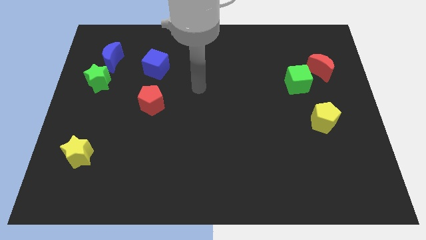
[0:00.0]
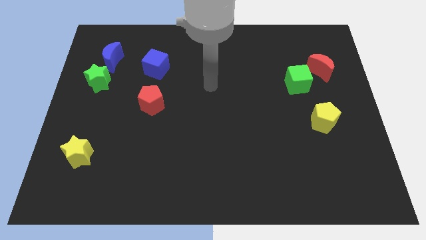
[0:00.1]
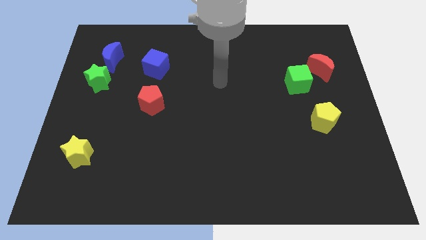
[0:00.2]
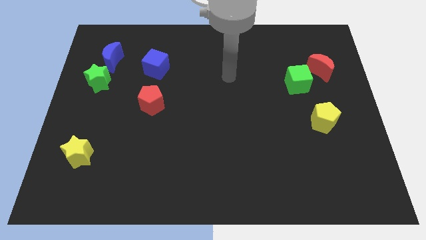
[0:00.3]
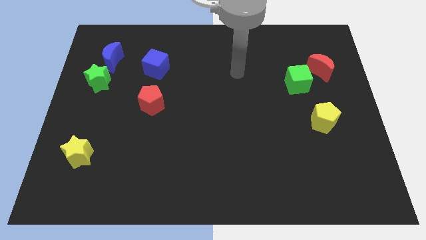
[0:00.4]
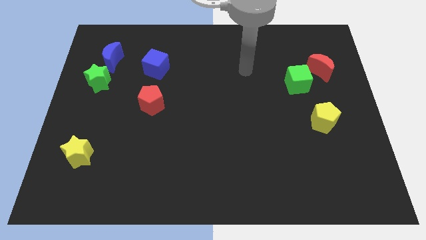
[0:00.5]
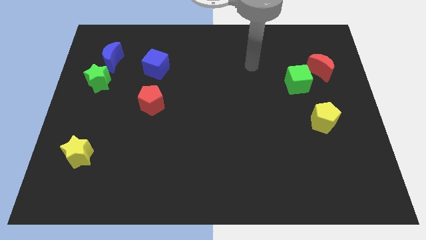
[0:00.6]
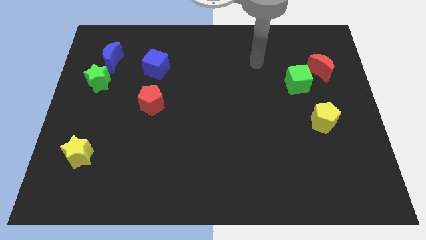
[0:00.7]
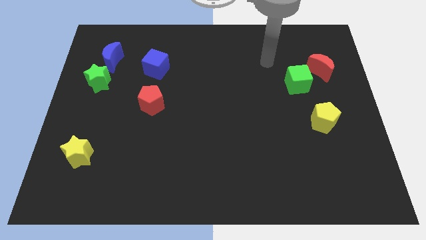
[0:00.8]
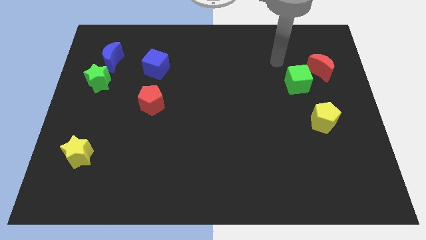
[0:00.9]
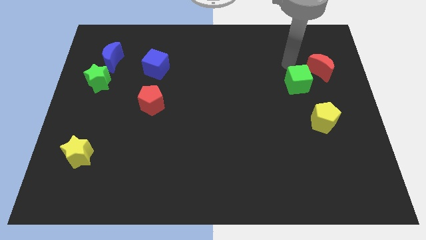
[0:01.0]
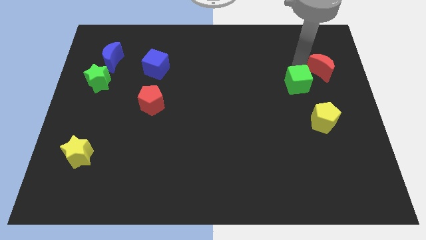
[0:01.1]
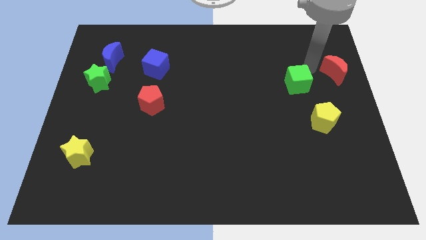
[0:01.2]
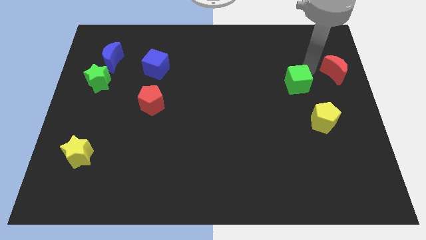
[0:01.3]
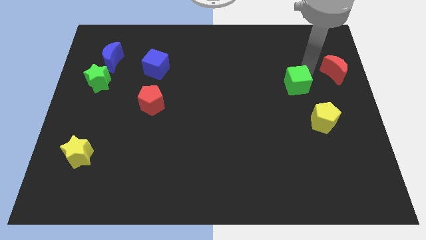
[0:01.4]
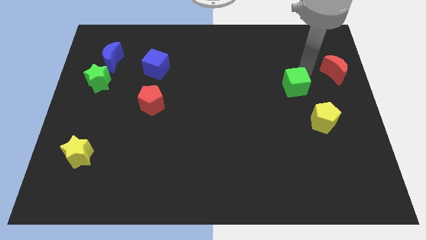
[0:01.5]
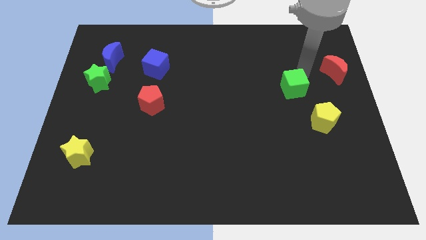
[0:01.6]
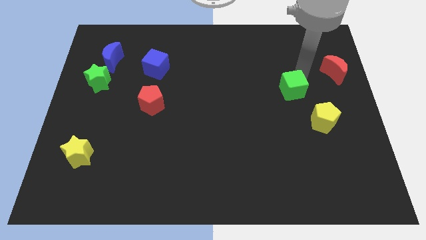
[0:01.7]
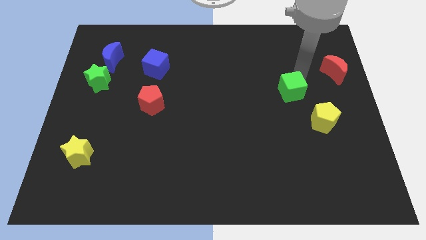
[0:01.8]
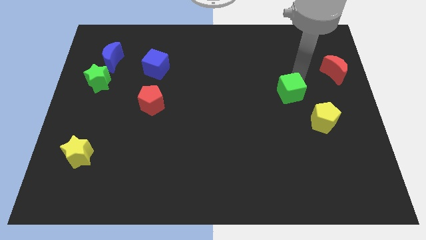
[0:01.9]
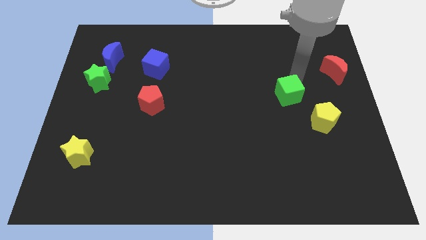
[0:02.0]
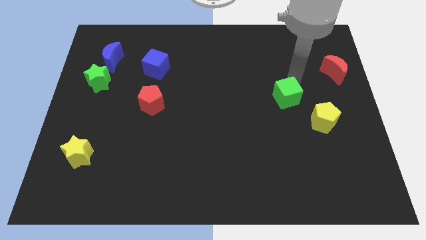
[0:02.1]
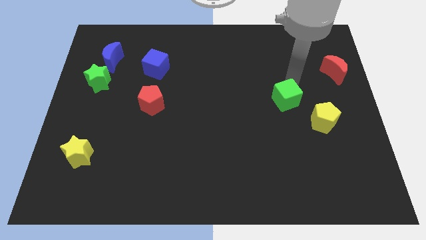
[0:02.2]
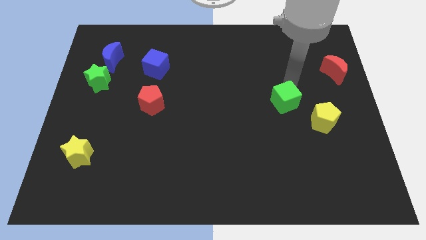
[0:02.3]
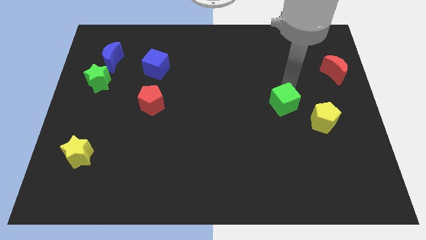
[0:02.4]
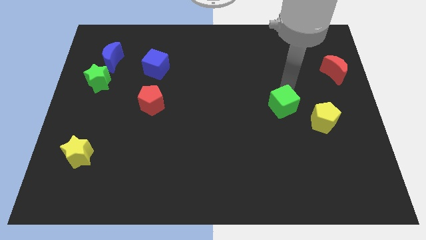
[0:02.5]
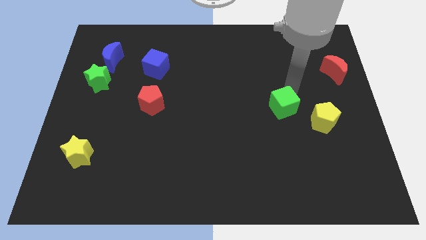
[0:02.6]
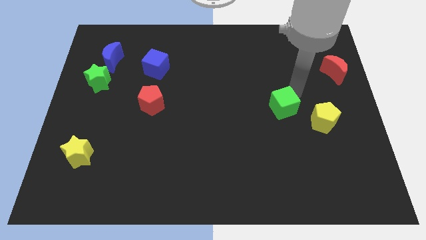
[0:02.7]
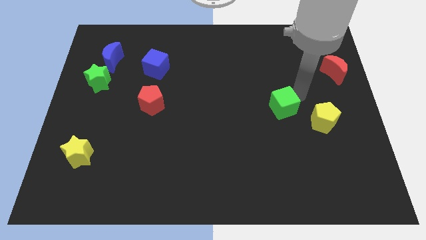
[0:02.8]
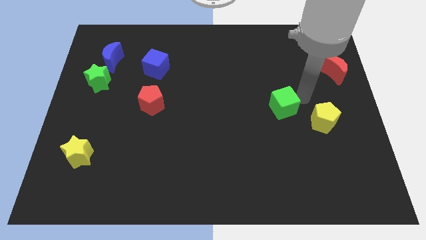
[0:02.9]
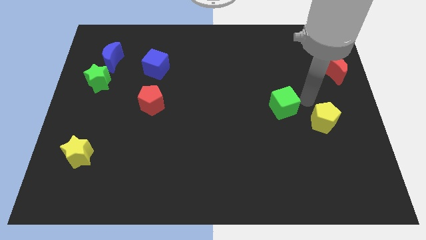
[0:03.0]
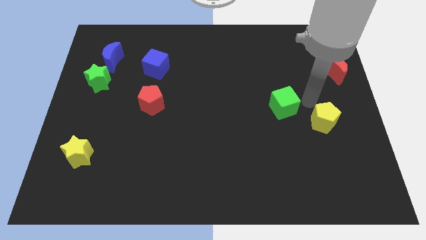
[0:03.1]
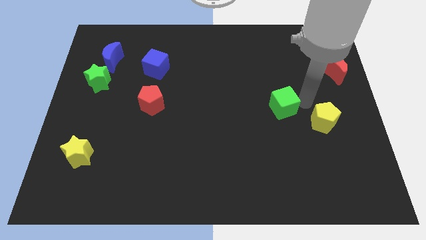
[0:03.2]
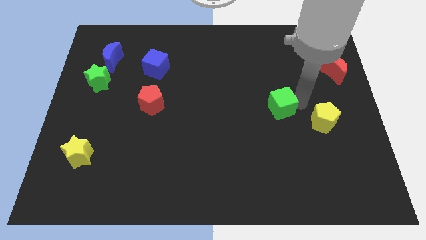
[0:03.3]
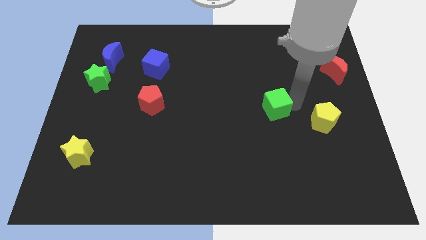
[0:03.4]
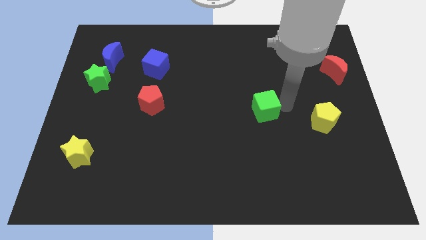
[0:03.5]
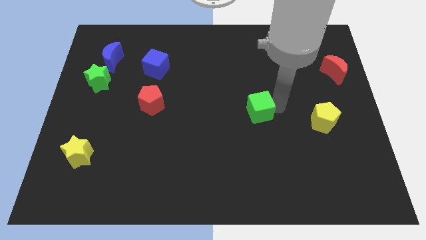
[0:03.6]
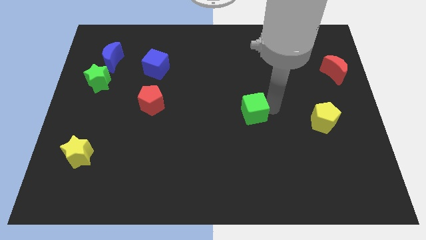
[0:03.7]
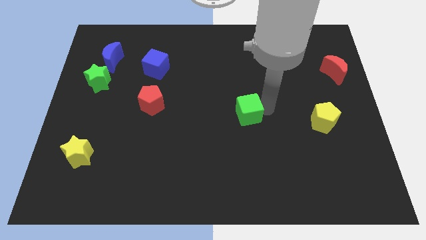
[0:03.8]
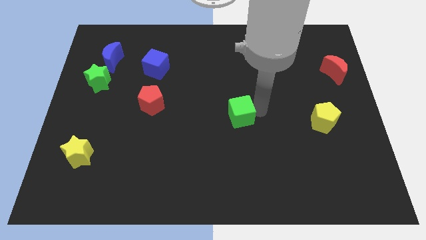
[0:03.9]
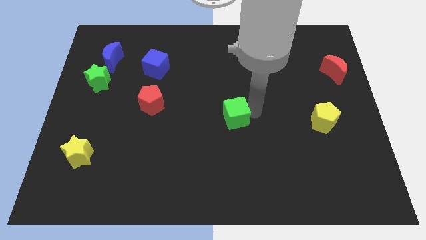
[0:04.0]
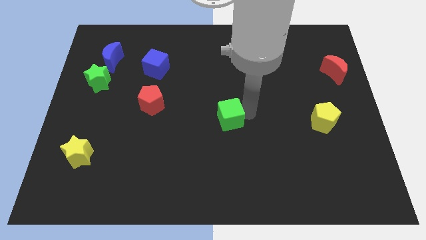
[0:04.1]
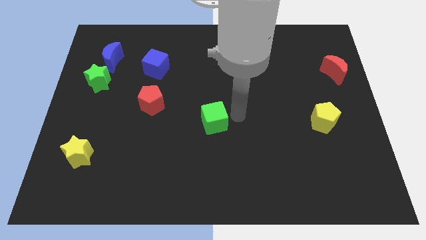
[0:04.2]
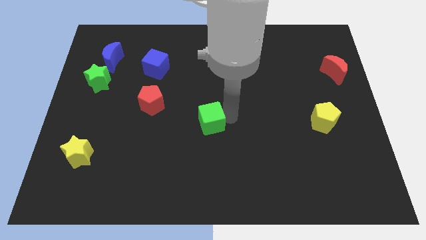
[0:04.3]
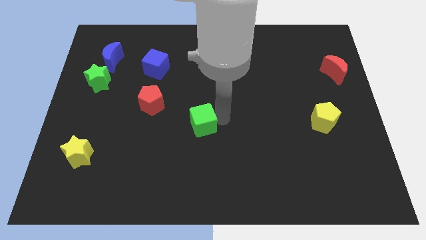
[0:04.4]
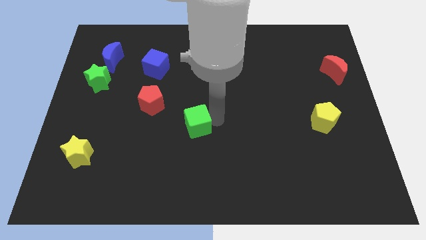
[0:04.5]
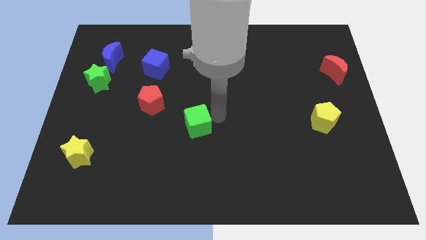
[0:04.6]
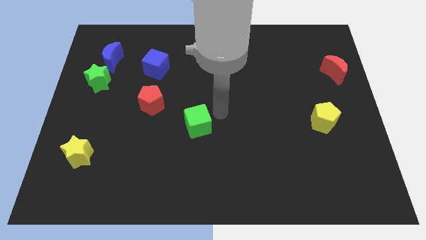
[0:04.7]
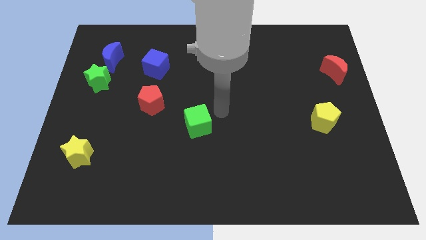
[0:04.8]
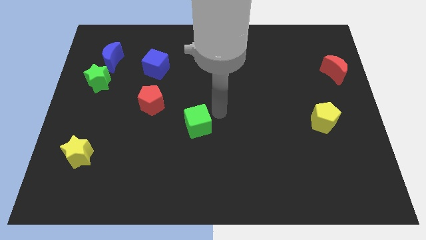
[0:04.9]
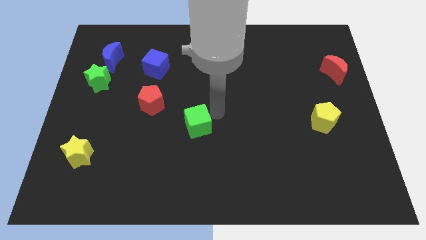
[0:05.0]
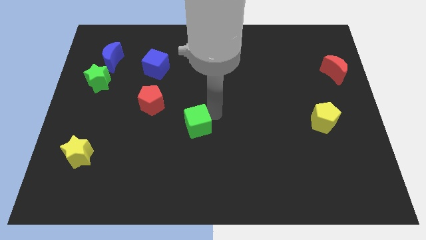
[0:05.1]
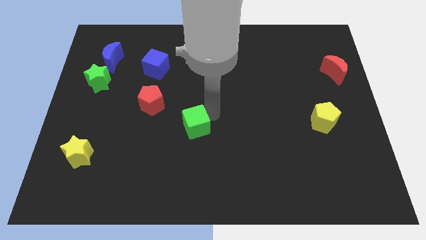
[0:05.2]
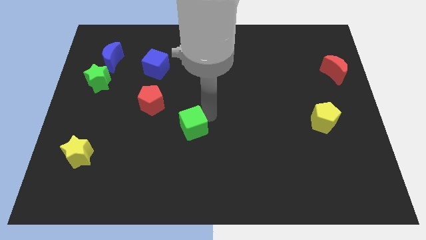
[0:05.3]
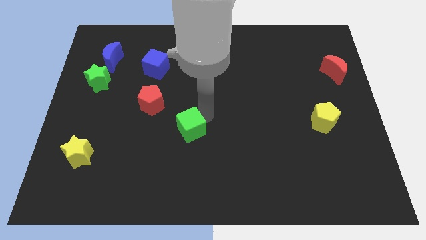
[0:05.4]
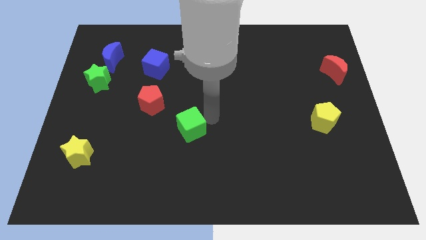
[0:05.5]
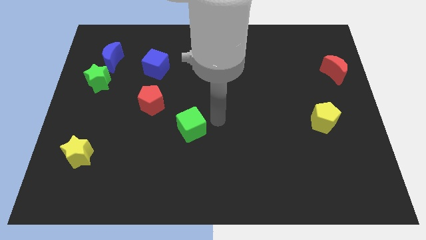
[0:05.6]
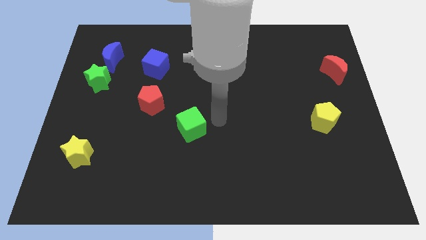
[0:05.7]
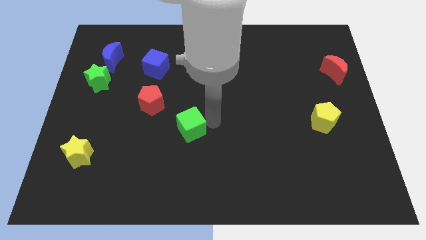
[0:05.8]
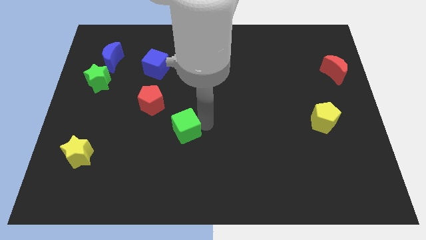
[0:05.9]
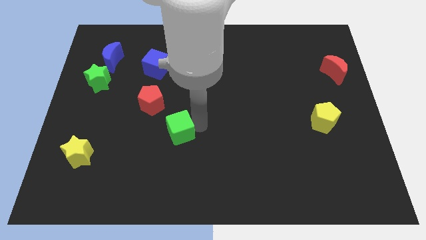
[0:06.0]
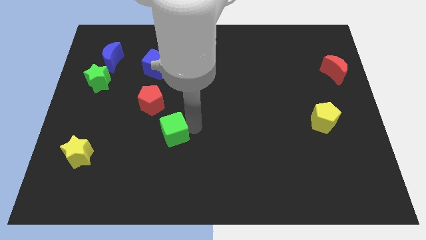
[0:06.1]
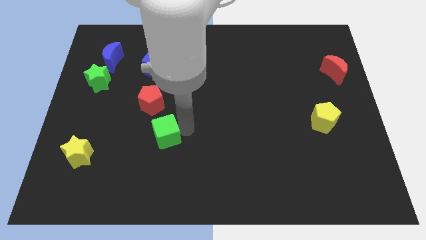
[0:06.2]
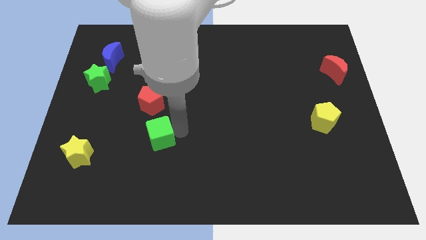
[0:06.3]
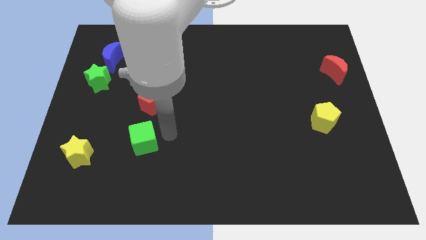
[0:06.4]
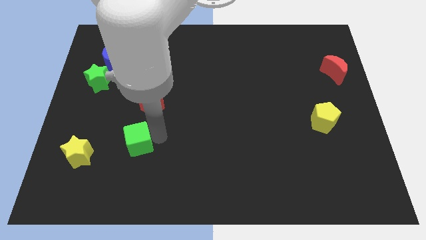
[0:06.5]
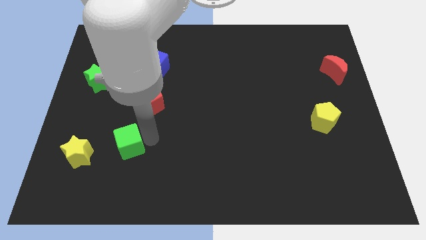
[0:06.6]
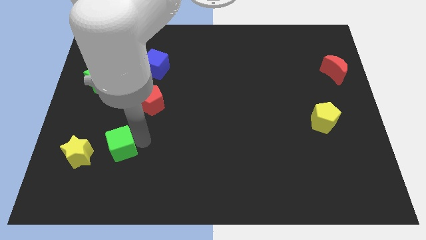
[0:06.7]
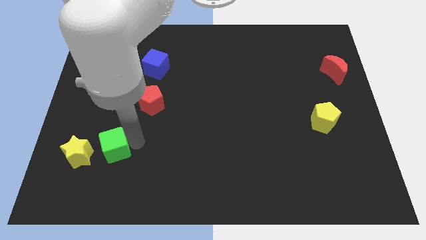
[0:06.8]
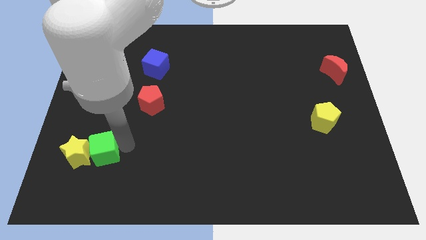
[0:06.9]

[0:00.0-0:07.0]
put the green cube to the yellow star
